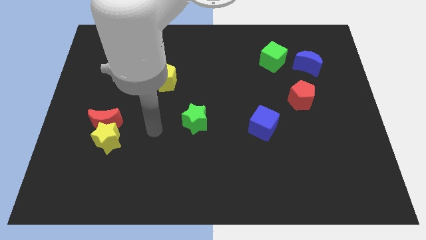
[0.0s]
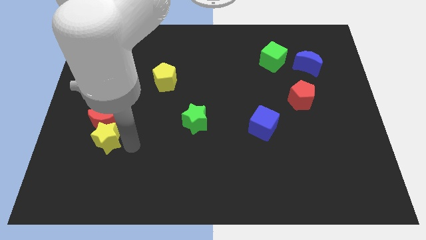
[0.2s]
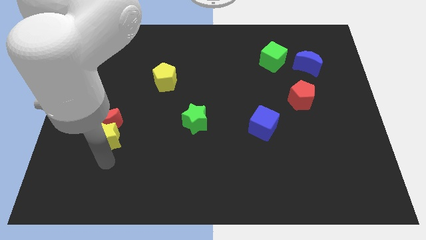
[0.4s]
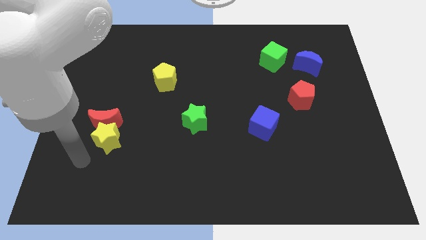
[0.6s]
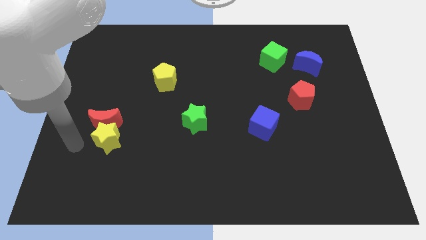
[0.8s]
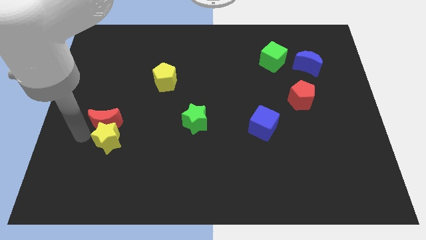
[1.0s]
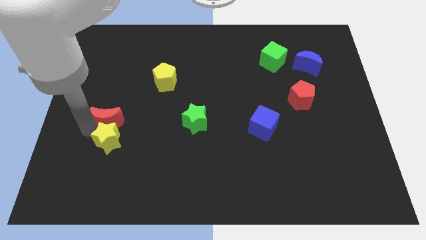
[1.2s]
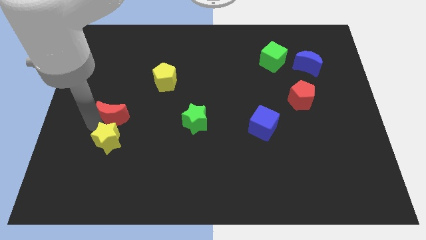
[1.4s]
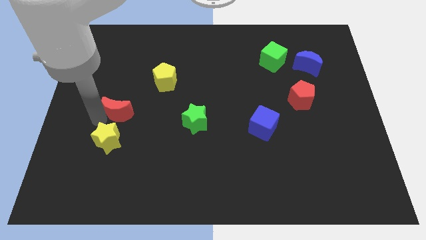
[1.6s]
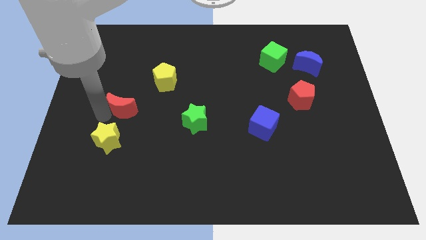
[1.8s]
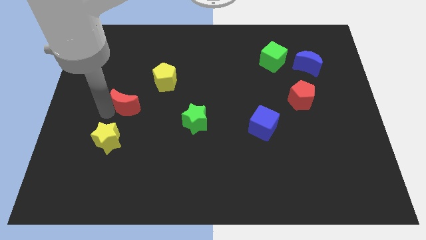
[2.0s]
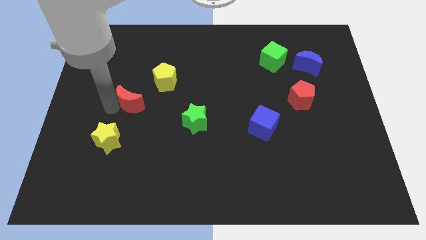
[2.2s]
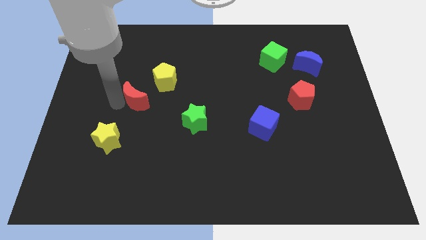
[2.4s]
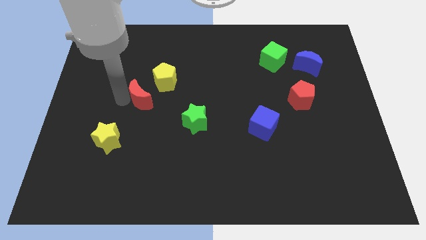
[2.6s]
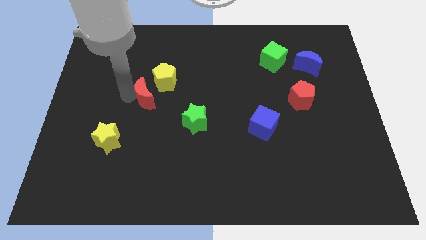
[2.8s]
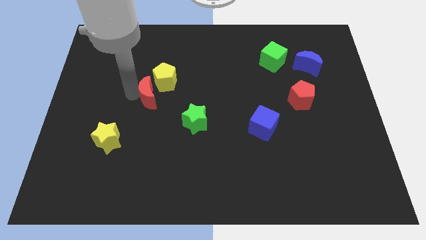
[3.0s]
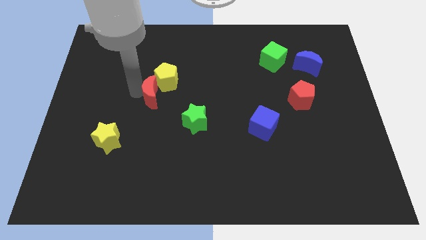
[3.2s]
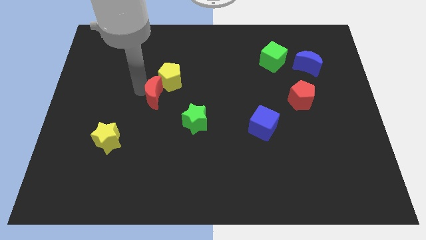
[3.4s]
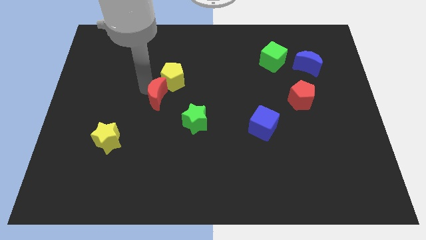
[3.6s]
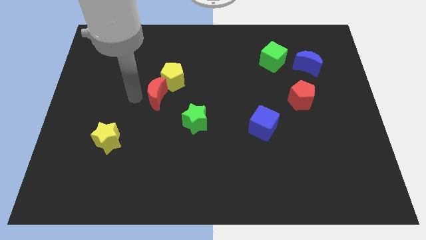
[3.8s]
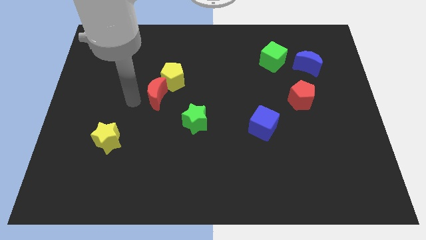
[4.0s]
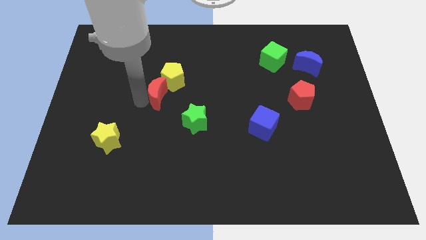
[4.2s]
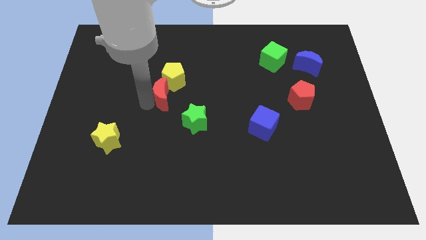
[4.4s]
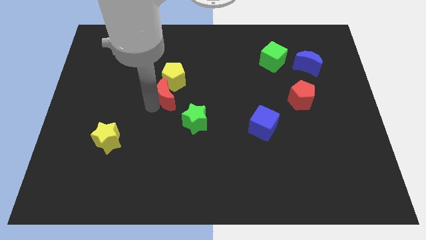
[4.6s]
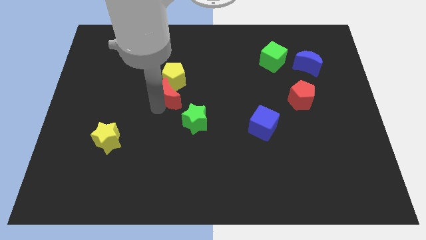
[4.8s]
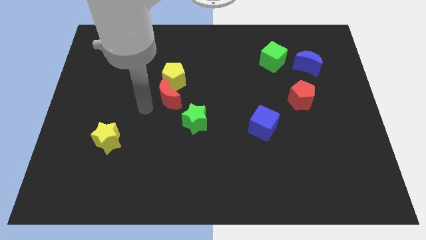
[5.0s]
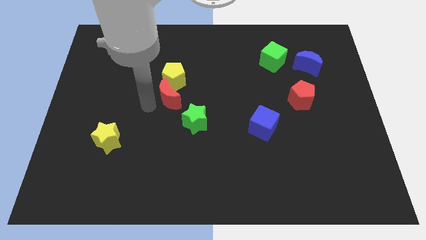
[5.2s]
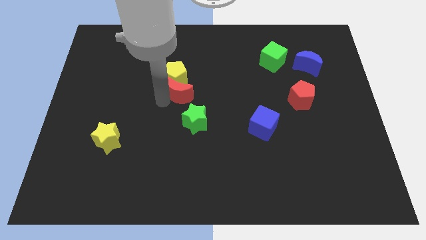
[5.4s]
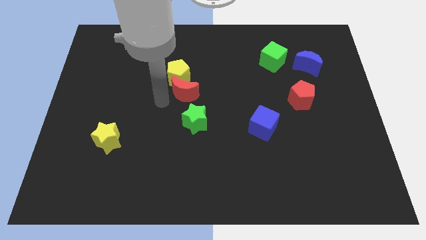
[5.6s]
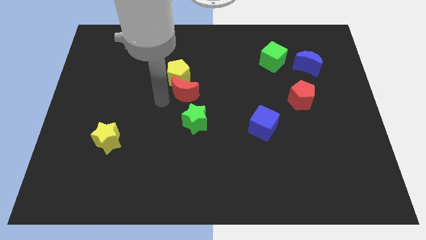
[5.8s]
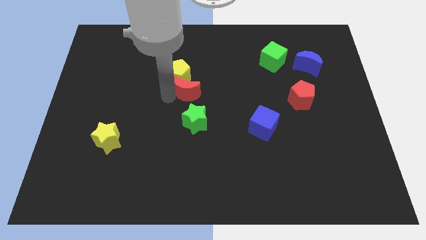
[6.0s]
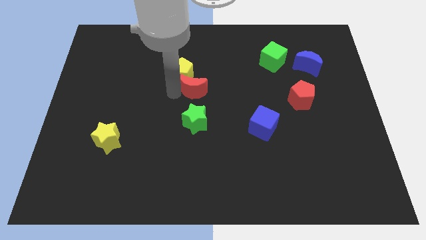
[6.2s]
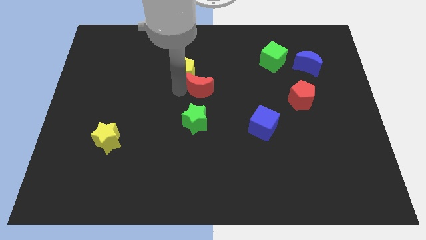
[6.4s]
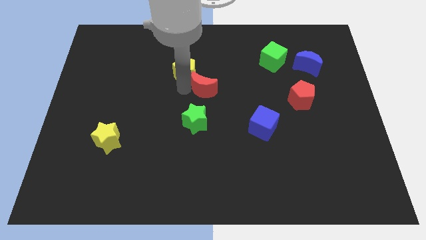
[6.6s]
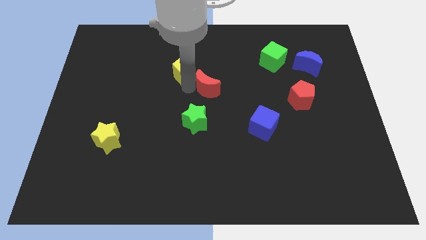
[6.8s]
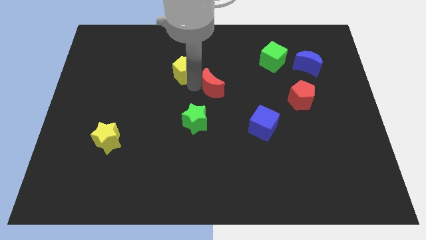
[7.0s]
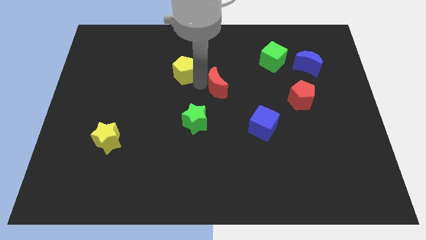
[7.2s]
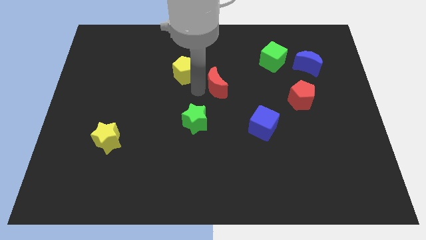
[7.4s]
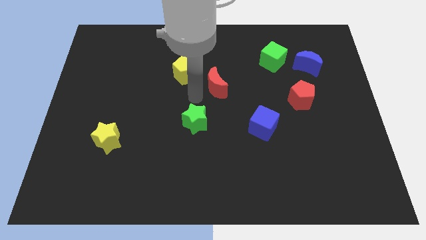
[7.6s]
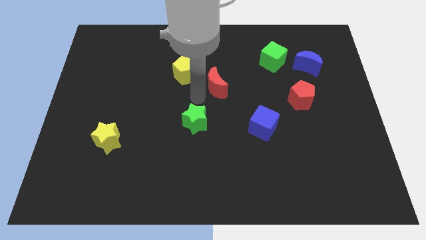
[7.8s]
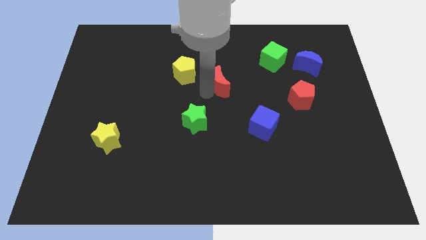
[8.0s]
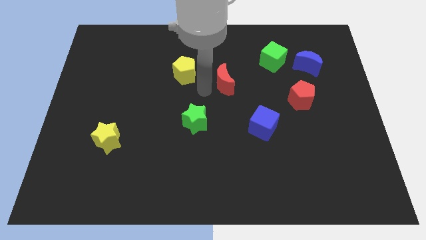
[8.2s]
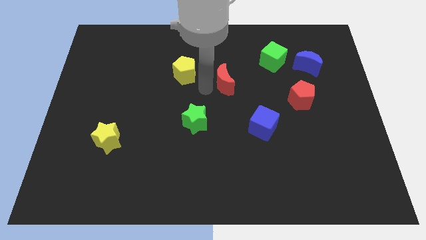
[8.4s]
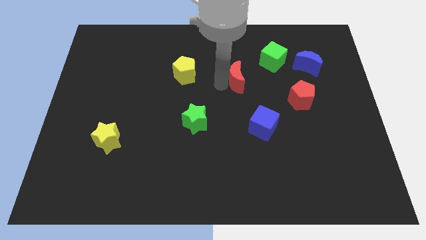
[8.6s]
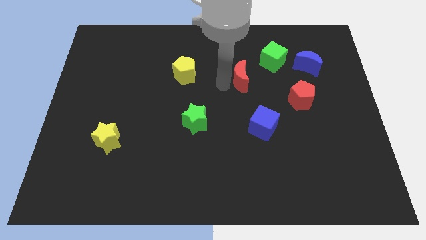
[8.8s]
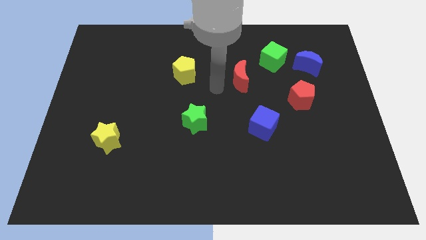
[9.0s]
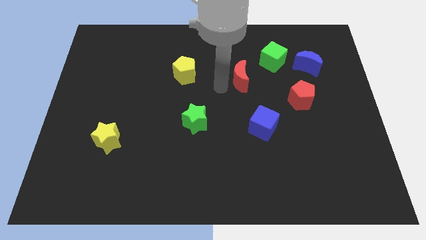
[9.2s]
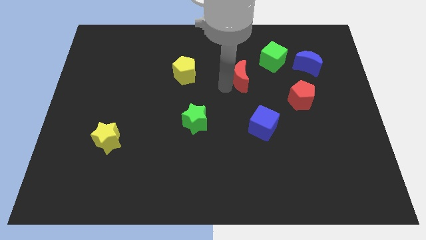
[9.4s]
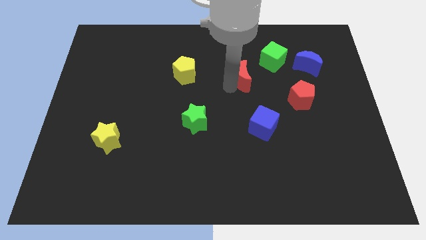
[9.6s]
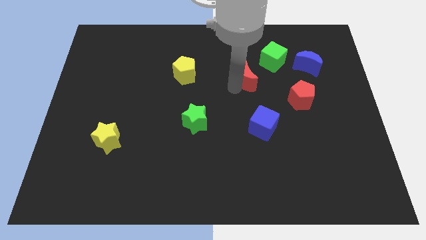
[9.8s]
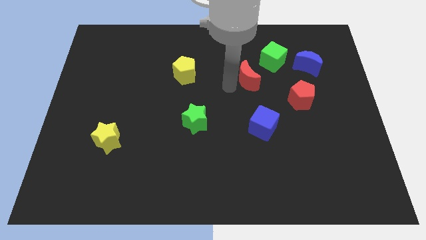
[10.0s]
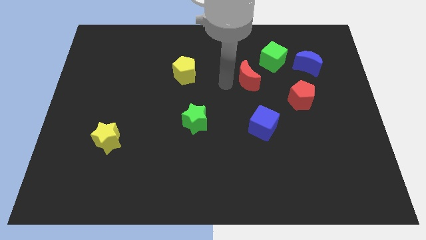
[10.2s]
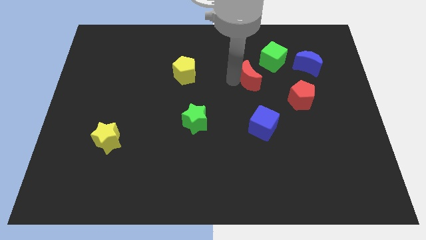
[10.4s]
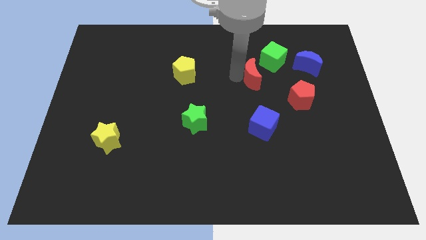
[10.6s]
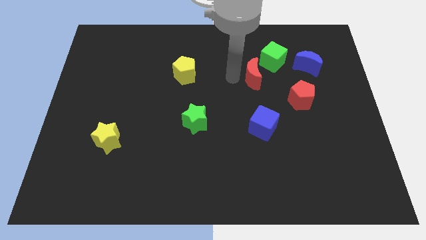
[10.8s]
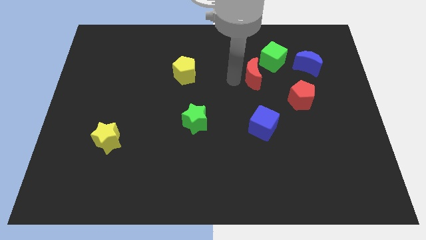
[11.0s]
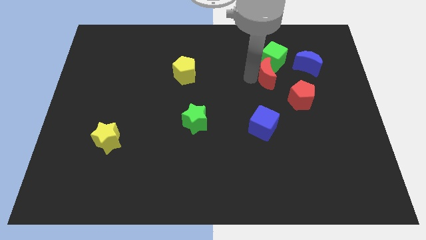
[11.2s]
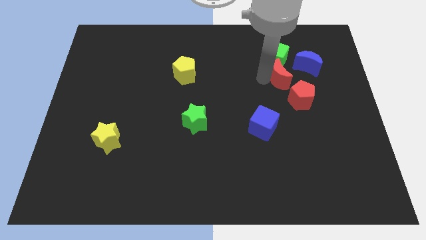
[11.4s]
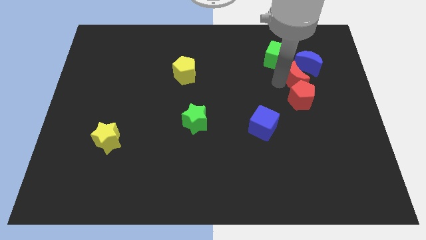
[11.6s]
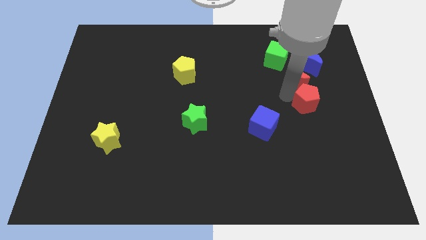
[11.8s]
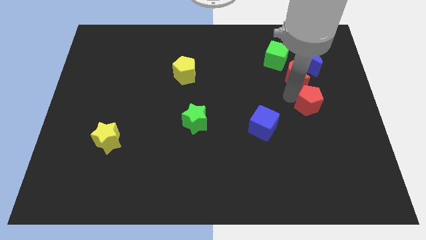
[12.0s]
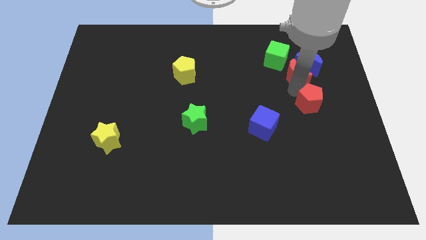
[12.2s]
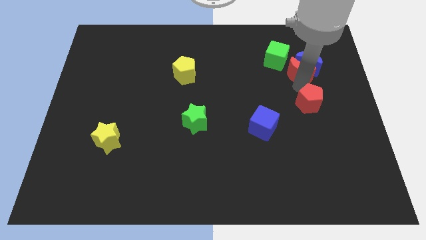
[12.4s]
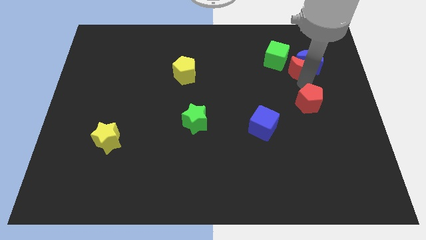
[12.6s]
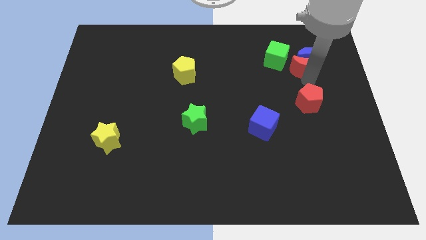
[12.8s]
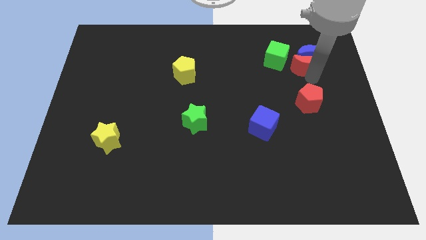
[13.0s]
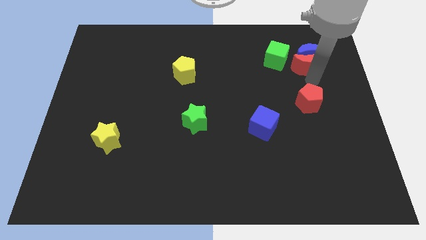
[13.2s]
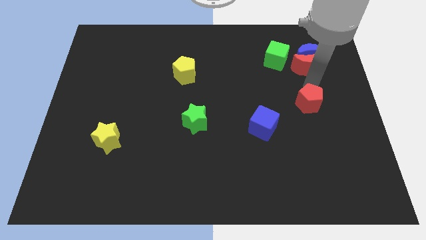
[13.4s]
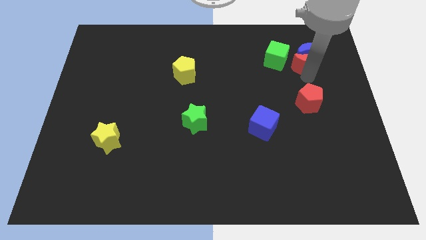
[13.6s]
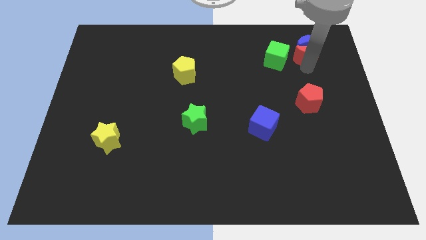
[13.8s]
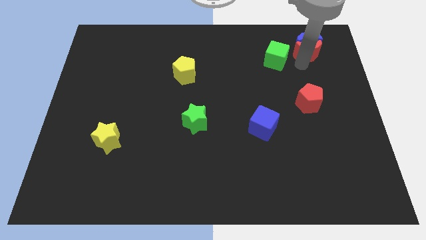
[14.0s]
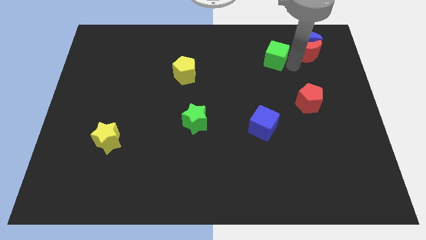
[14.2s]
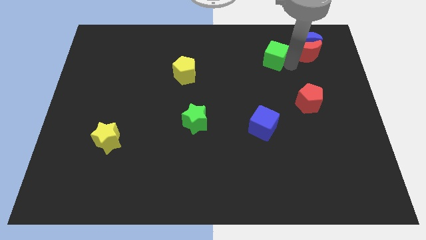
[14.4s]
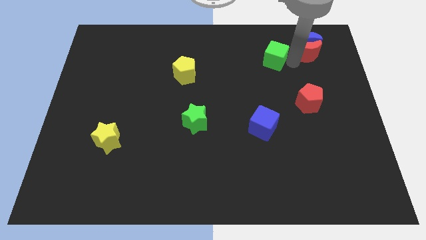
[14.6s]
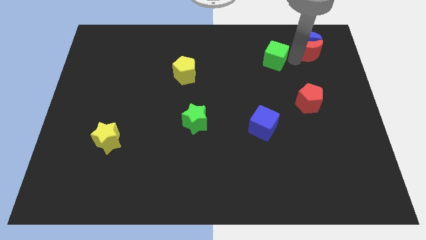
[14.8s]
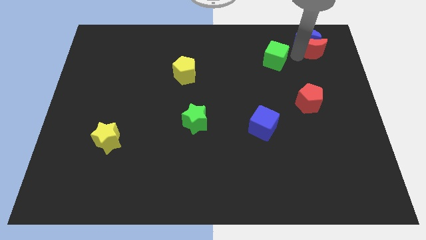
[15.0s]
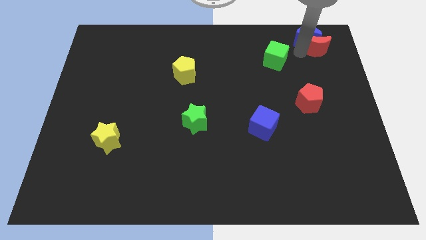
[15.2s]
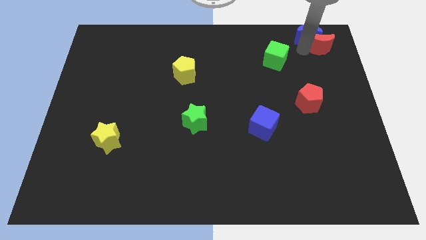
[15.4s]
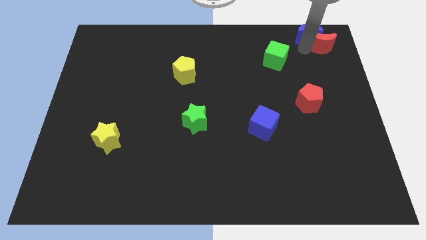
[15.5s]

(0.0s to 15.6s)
put the red moon to the top right of the board
